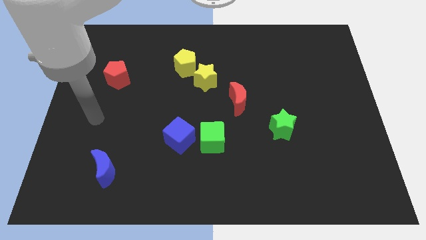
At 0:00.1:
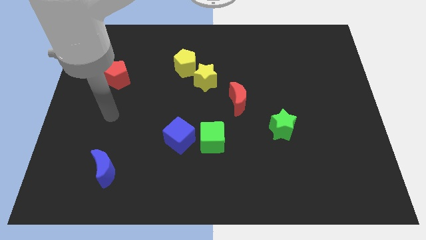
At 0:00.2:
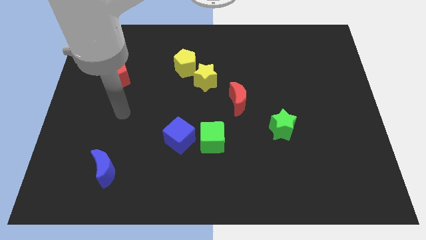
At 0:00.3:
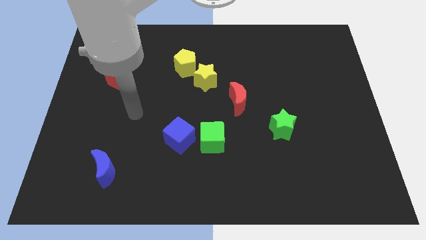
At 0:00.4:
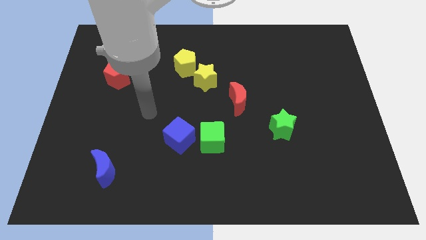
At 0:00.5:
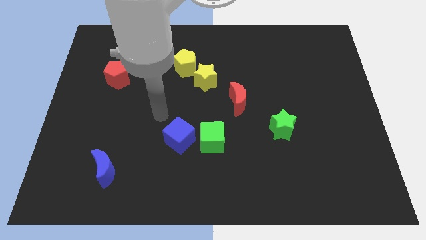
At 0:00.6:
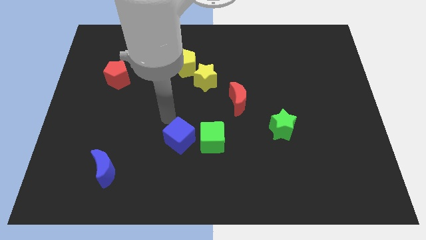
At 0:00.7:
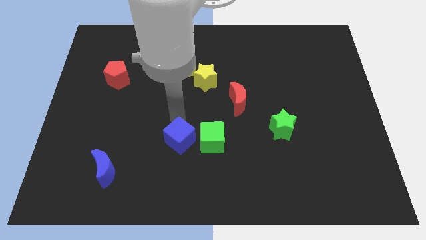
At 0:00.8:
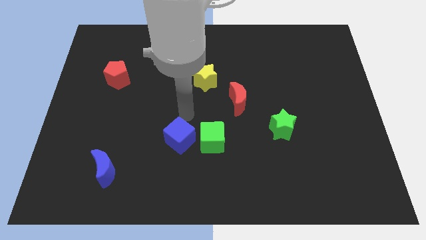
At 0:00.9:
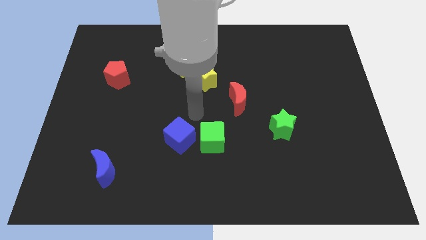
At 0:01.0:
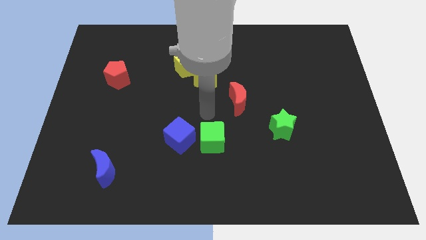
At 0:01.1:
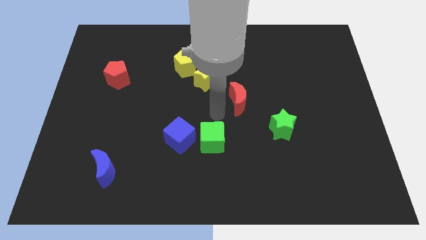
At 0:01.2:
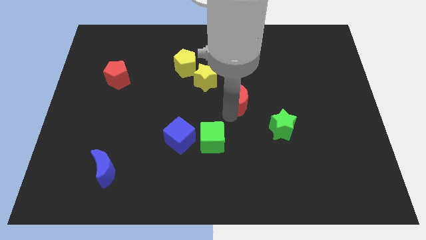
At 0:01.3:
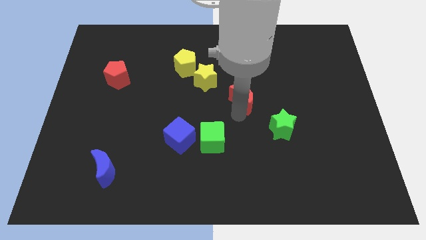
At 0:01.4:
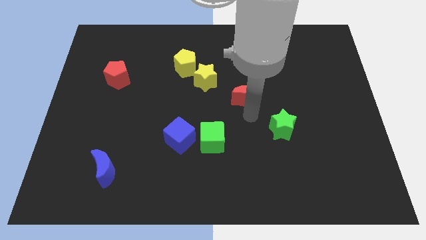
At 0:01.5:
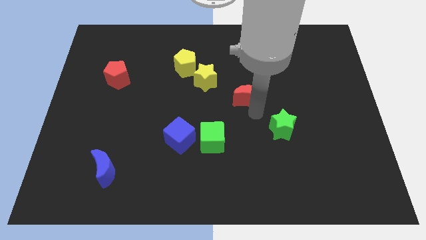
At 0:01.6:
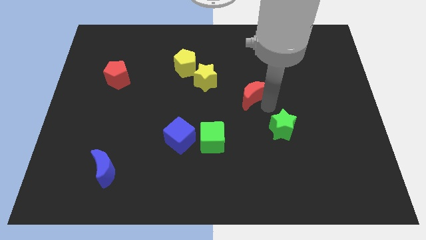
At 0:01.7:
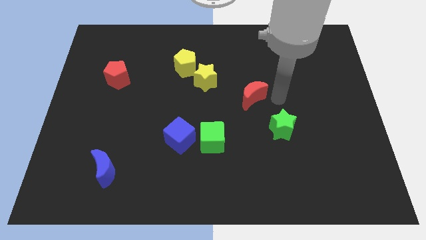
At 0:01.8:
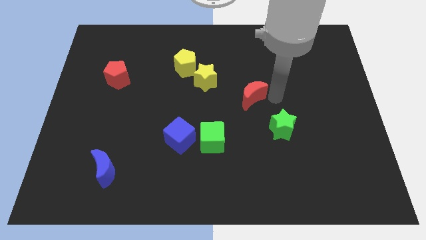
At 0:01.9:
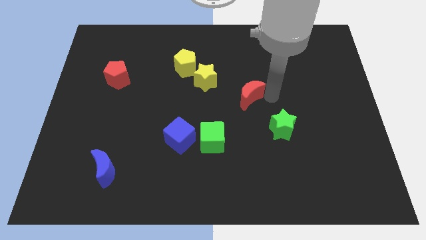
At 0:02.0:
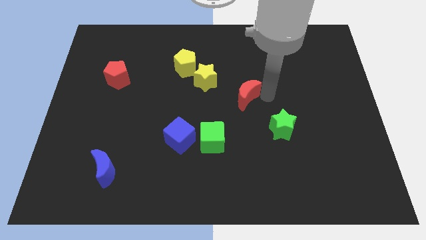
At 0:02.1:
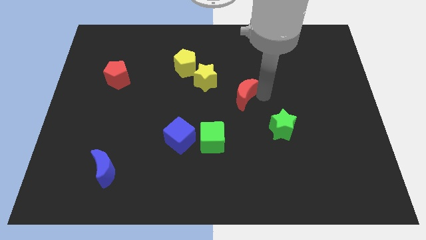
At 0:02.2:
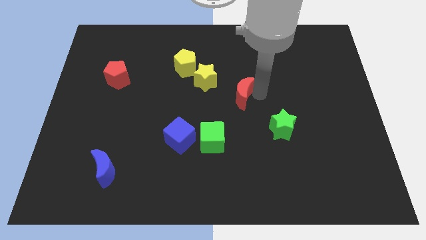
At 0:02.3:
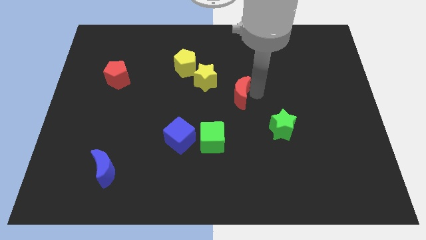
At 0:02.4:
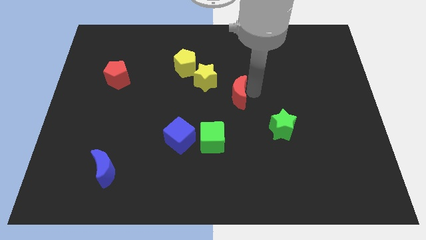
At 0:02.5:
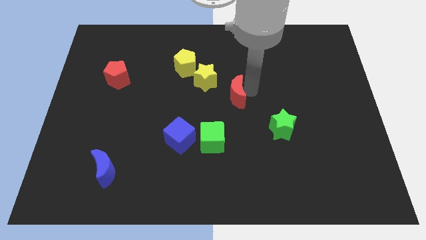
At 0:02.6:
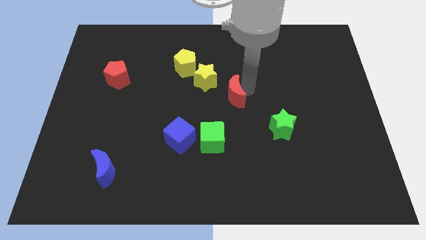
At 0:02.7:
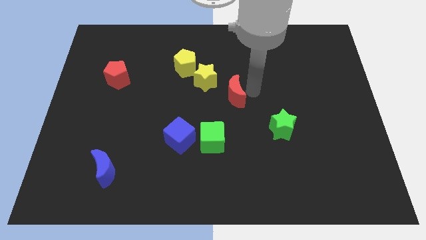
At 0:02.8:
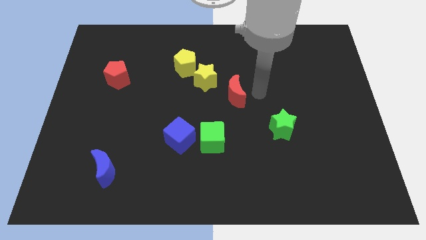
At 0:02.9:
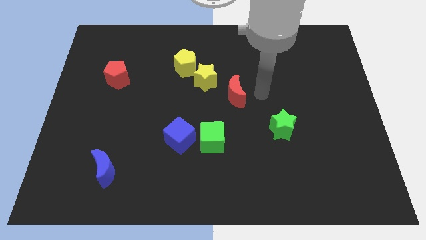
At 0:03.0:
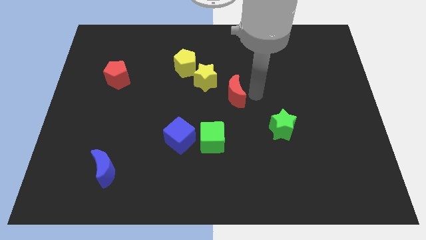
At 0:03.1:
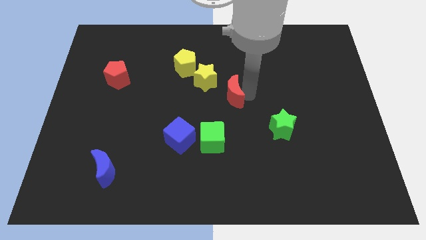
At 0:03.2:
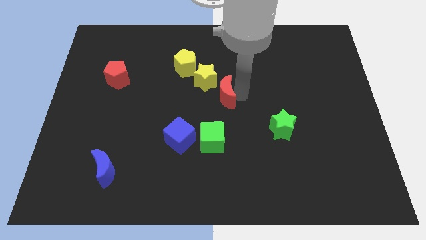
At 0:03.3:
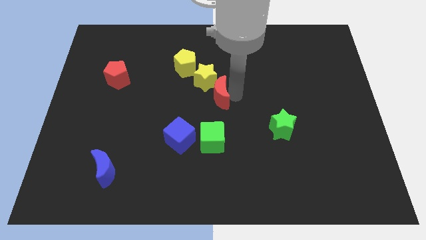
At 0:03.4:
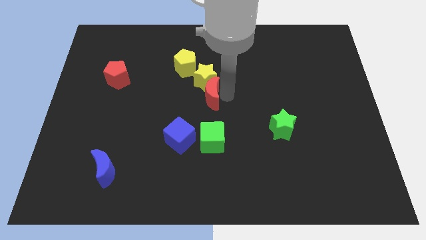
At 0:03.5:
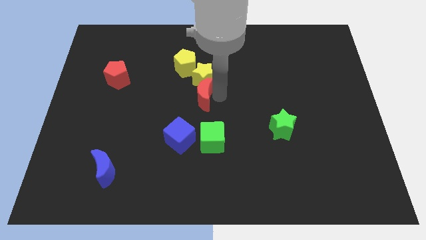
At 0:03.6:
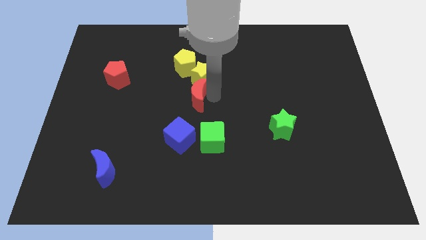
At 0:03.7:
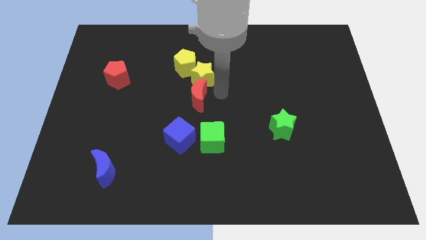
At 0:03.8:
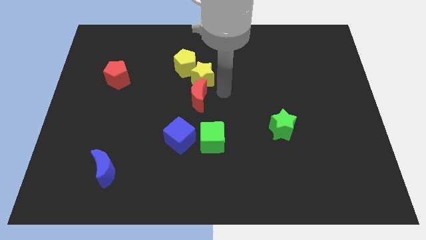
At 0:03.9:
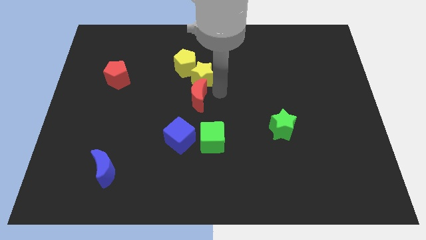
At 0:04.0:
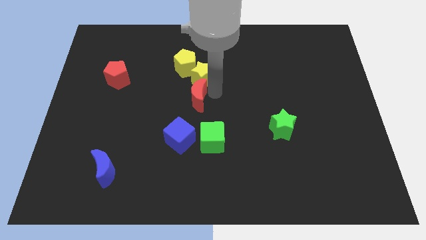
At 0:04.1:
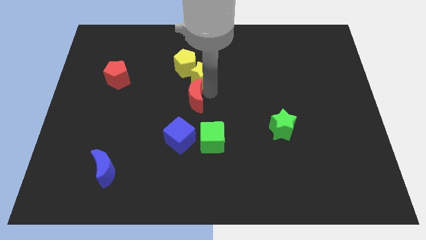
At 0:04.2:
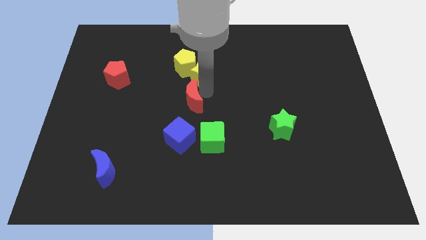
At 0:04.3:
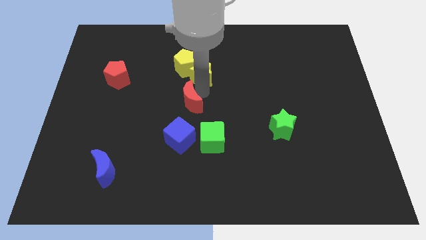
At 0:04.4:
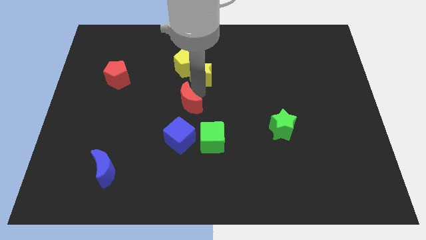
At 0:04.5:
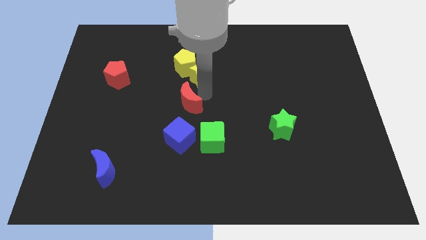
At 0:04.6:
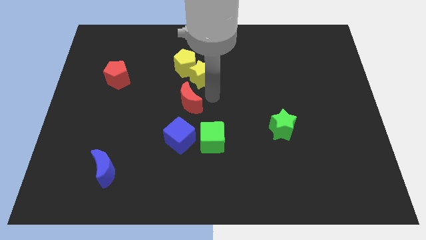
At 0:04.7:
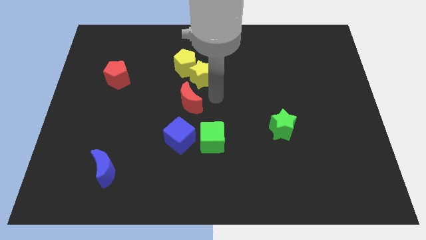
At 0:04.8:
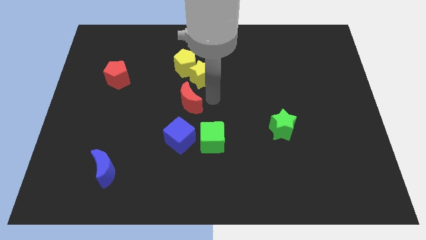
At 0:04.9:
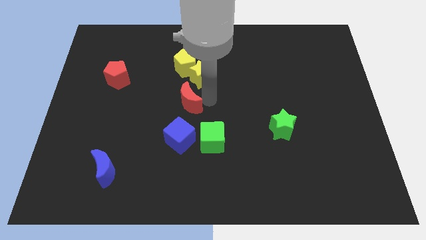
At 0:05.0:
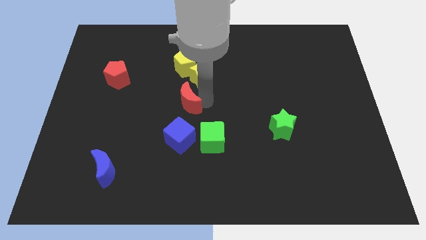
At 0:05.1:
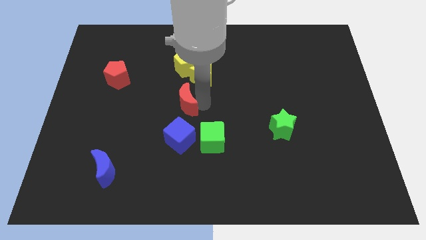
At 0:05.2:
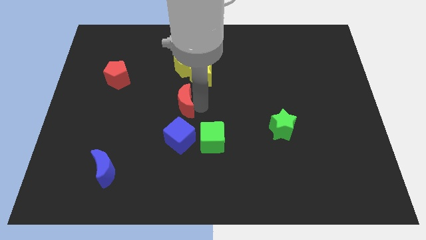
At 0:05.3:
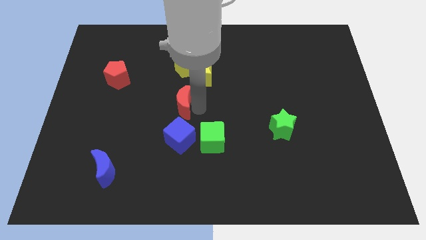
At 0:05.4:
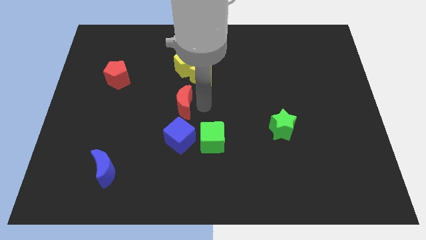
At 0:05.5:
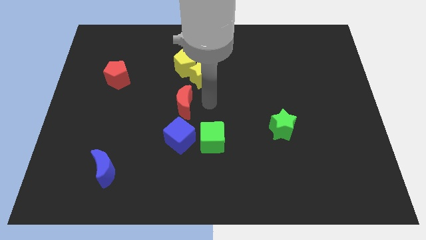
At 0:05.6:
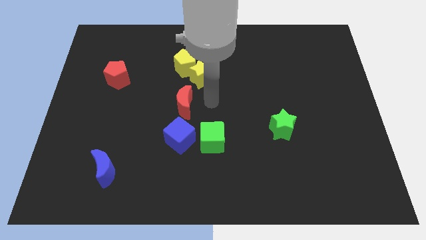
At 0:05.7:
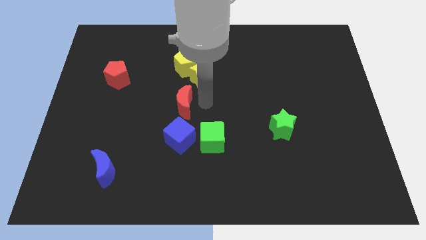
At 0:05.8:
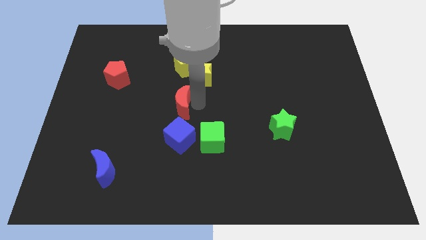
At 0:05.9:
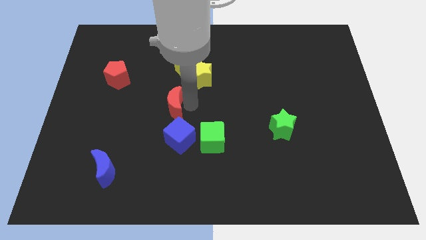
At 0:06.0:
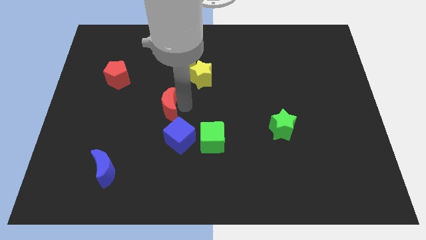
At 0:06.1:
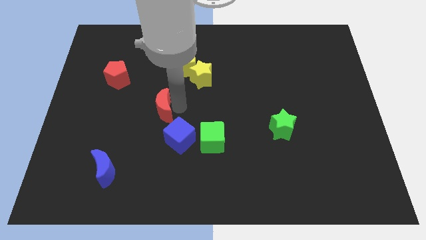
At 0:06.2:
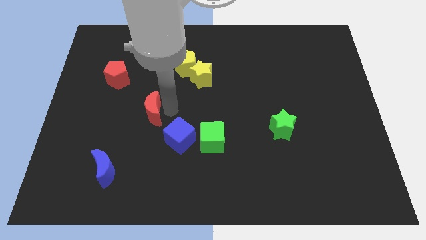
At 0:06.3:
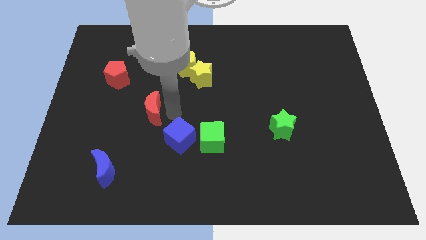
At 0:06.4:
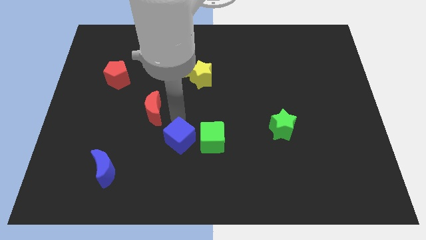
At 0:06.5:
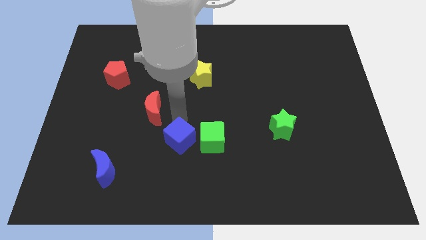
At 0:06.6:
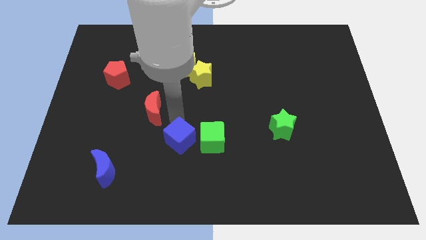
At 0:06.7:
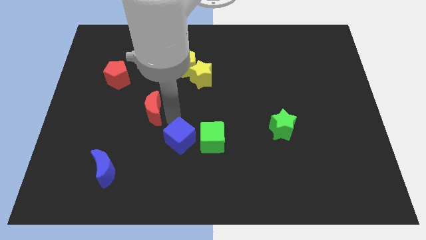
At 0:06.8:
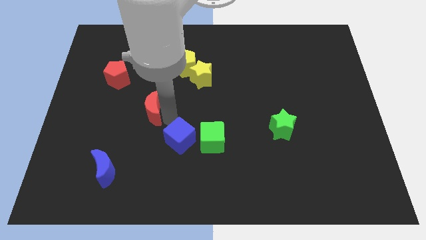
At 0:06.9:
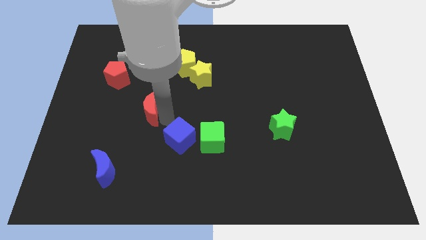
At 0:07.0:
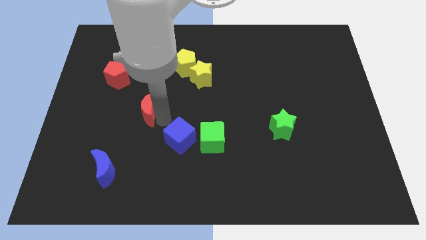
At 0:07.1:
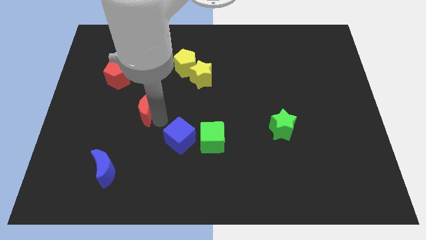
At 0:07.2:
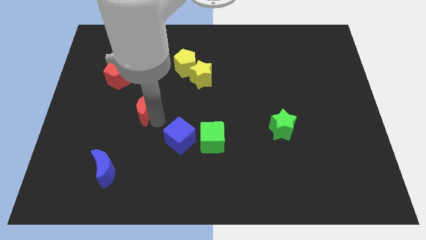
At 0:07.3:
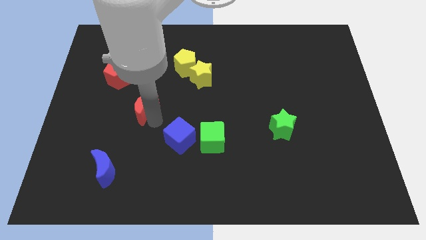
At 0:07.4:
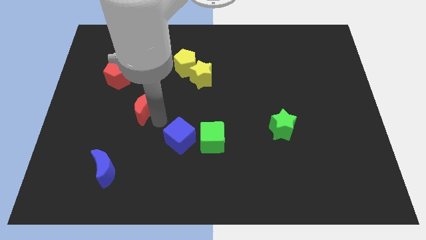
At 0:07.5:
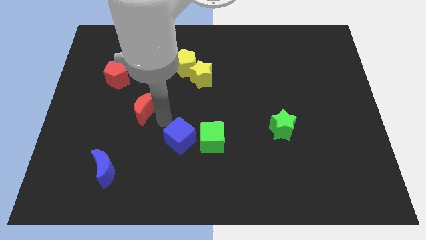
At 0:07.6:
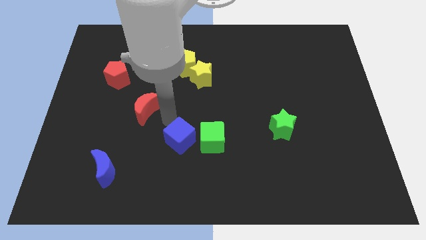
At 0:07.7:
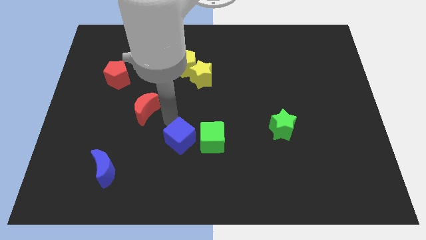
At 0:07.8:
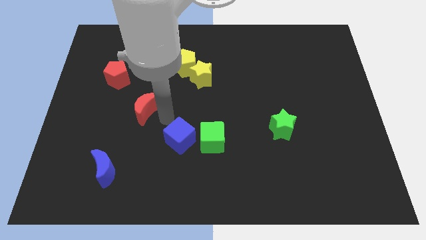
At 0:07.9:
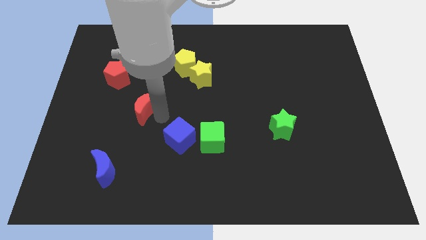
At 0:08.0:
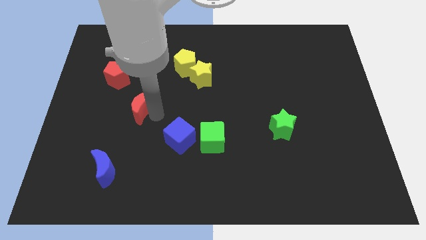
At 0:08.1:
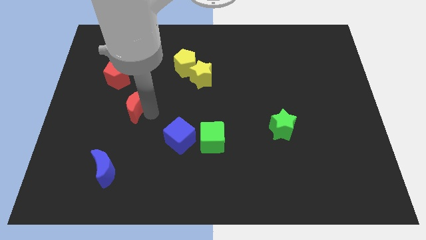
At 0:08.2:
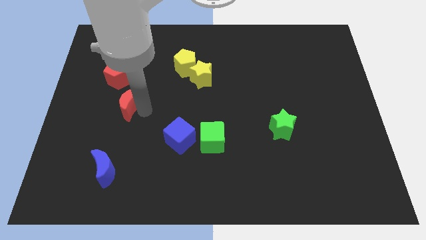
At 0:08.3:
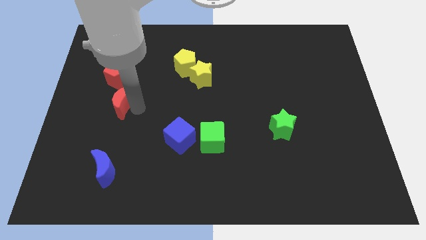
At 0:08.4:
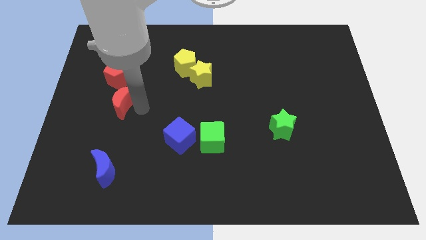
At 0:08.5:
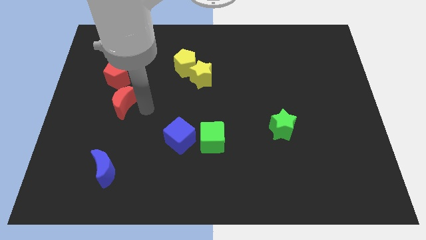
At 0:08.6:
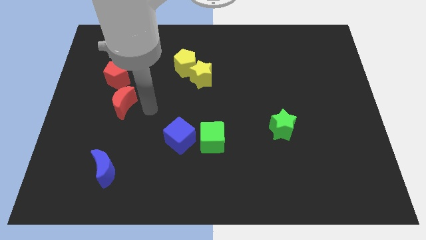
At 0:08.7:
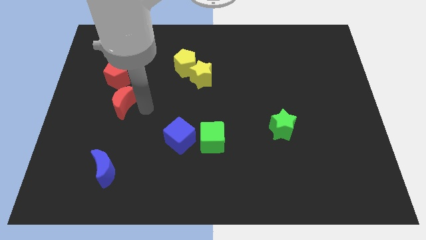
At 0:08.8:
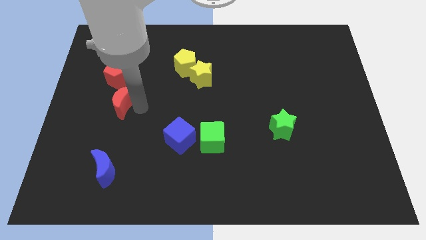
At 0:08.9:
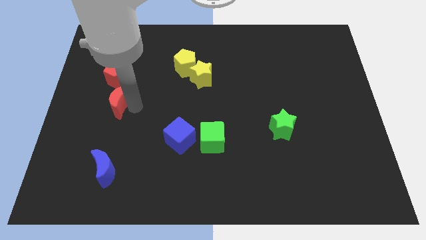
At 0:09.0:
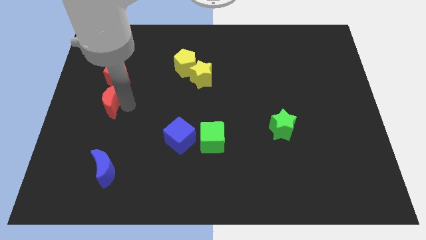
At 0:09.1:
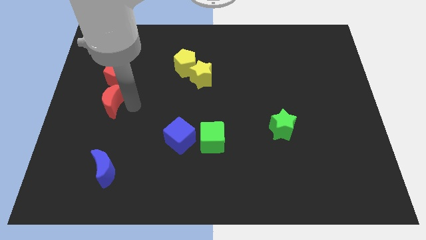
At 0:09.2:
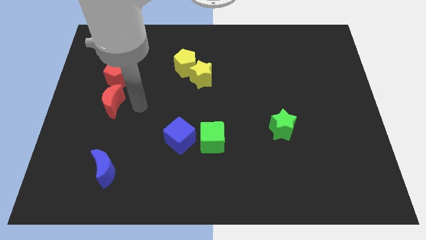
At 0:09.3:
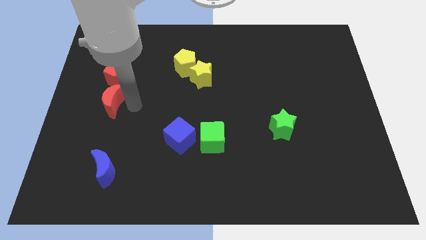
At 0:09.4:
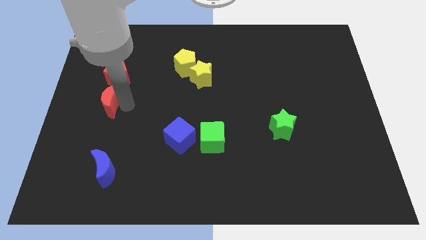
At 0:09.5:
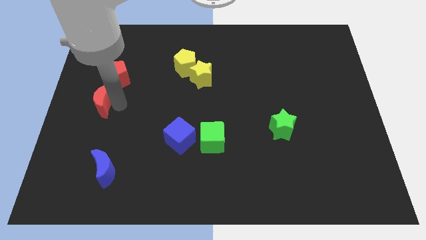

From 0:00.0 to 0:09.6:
push the red moon to the center left
